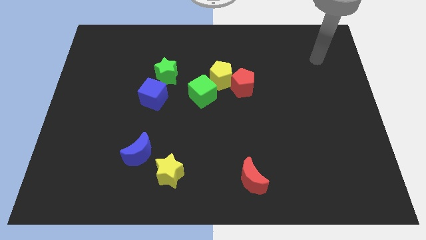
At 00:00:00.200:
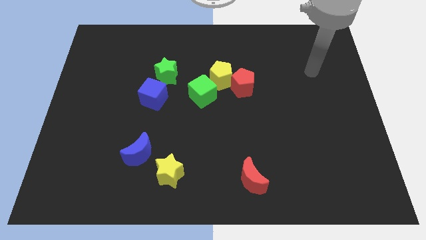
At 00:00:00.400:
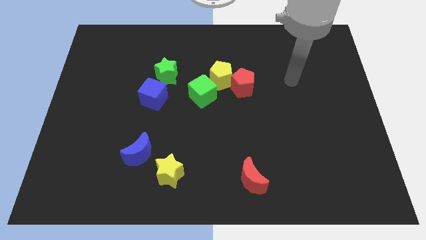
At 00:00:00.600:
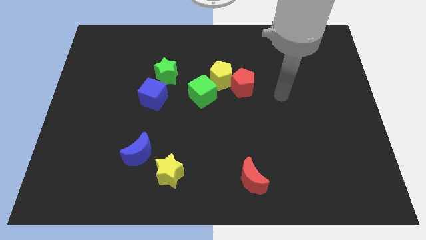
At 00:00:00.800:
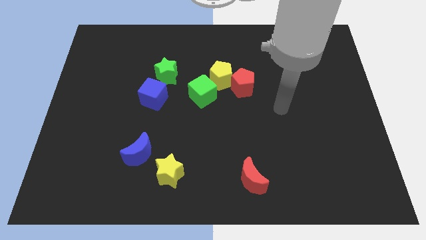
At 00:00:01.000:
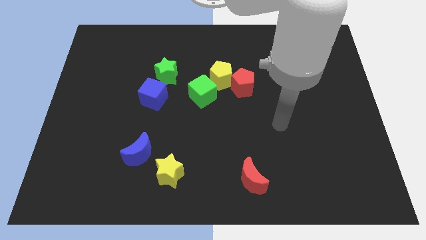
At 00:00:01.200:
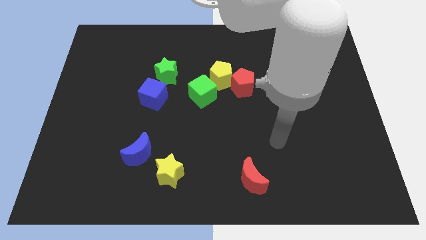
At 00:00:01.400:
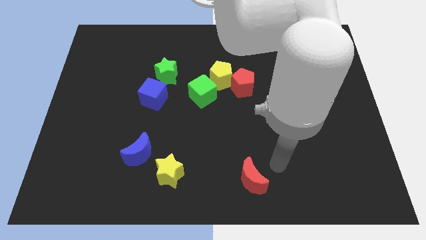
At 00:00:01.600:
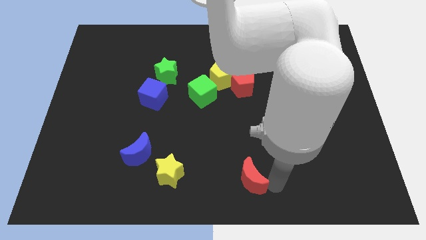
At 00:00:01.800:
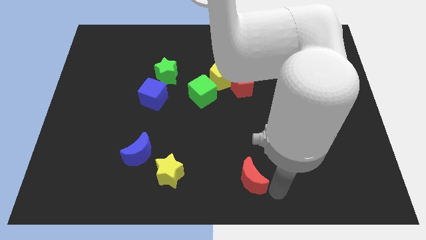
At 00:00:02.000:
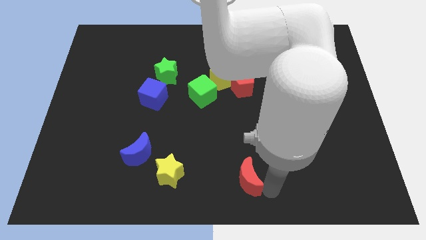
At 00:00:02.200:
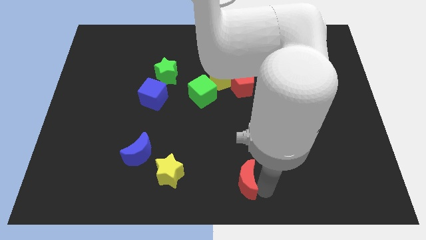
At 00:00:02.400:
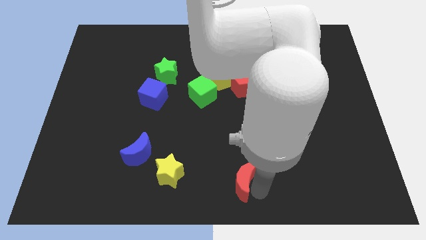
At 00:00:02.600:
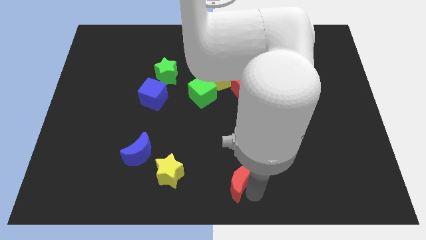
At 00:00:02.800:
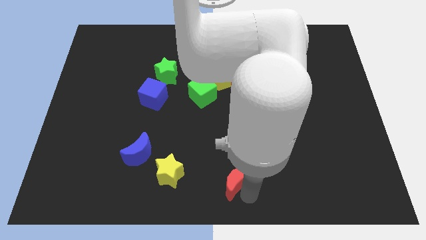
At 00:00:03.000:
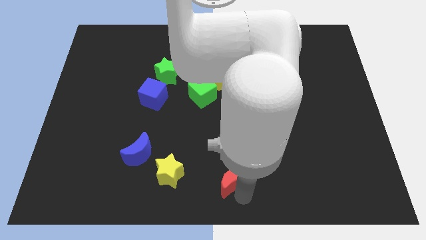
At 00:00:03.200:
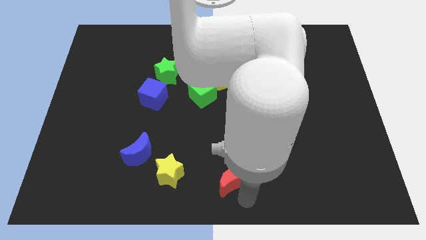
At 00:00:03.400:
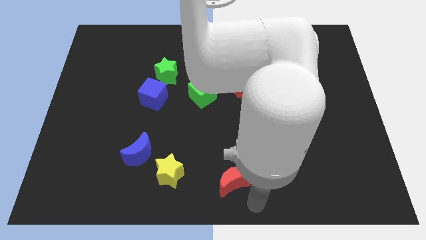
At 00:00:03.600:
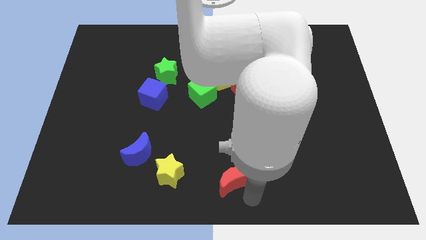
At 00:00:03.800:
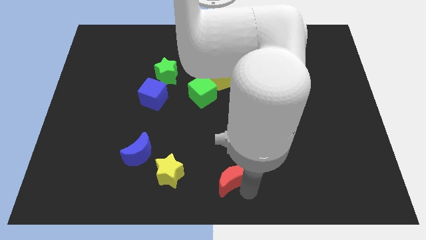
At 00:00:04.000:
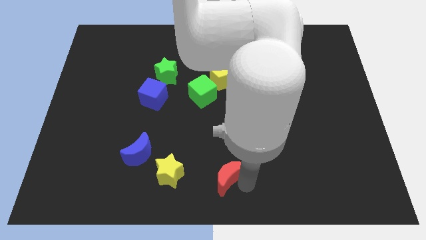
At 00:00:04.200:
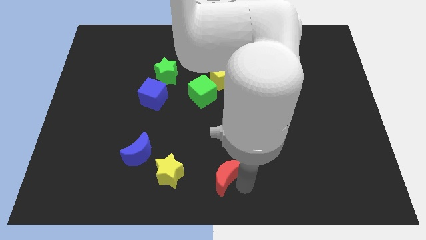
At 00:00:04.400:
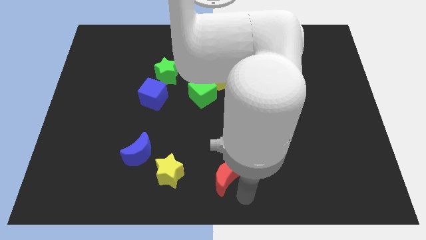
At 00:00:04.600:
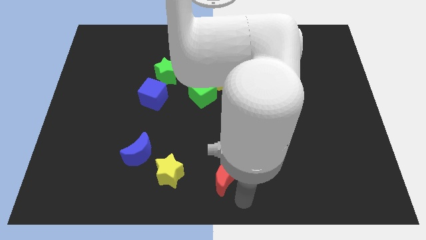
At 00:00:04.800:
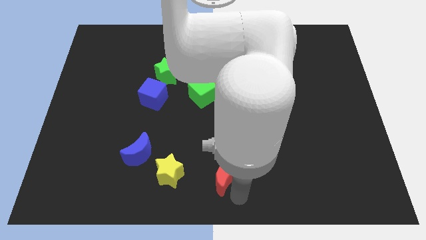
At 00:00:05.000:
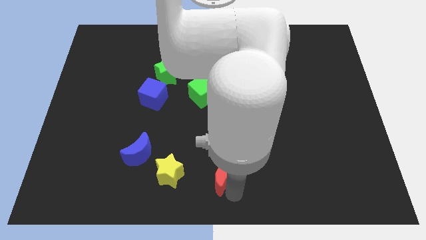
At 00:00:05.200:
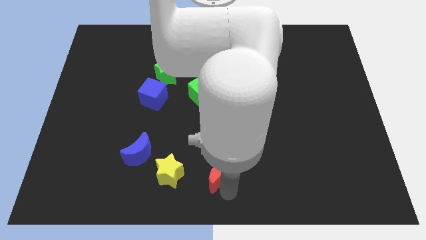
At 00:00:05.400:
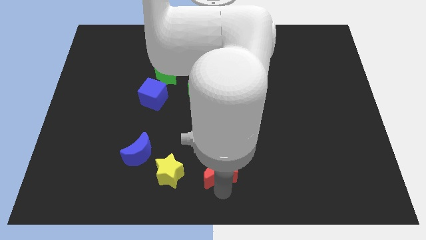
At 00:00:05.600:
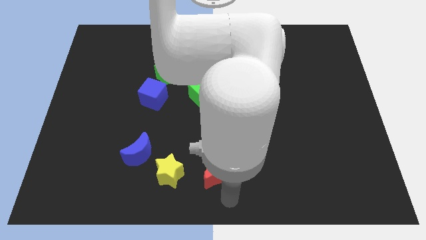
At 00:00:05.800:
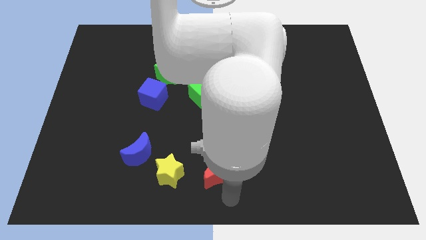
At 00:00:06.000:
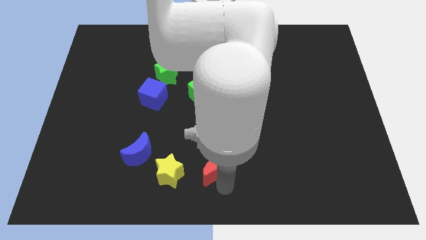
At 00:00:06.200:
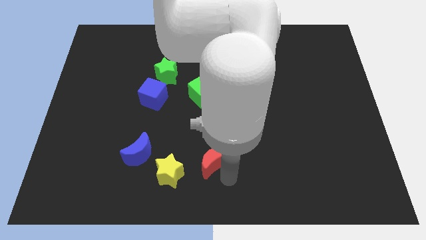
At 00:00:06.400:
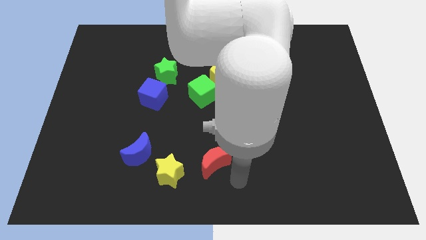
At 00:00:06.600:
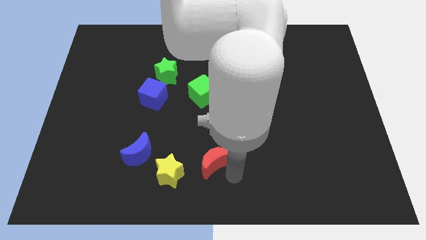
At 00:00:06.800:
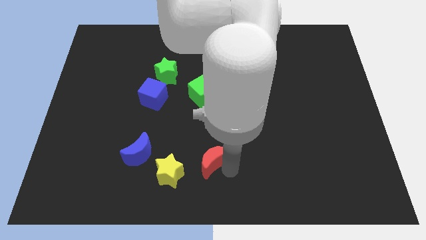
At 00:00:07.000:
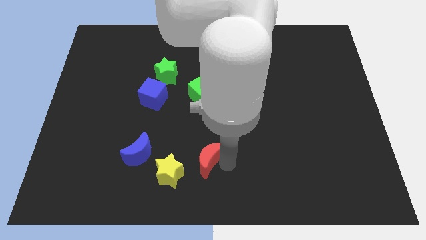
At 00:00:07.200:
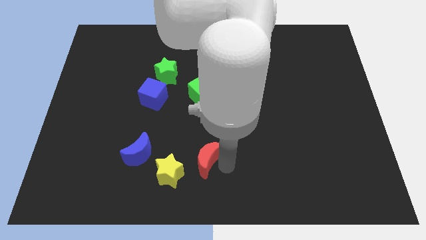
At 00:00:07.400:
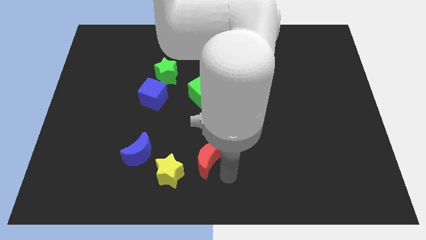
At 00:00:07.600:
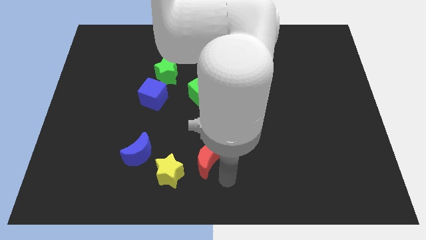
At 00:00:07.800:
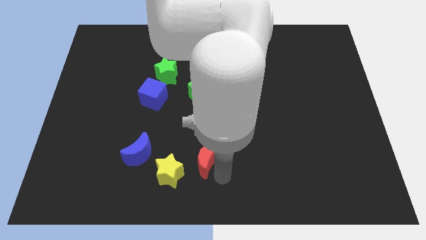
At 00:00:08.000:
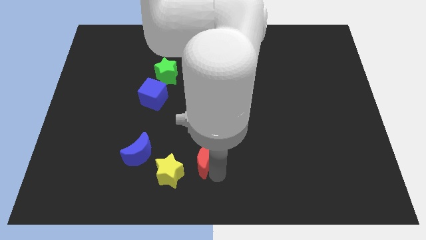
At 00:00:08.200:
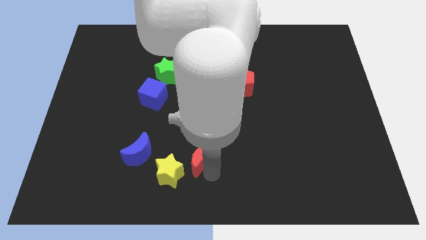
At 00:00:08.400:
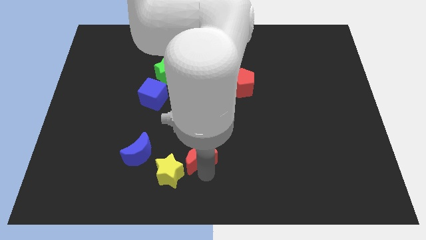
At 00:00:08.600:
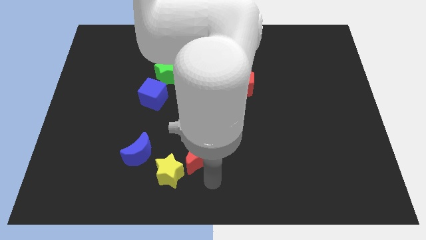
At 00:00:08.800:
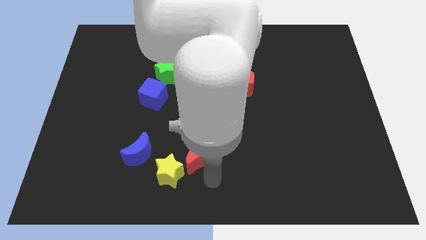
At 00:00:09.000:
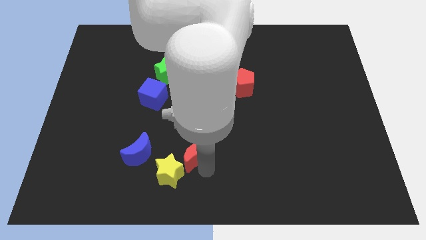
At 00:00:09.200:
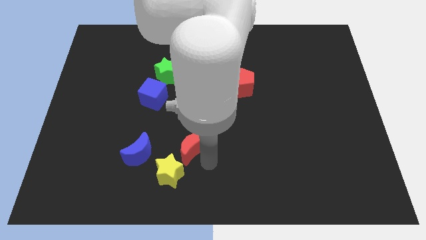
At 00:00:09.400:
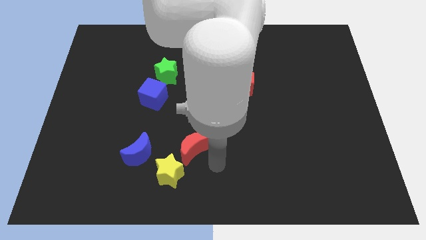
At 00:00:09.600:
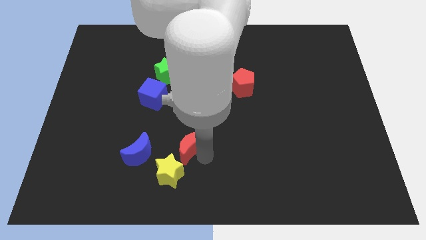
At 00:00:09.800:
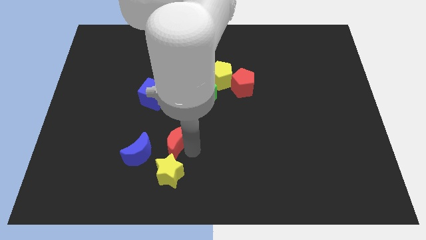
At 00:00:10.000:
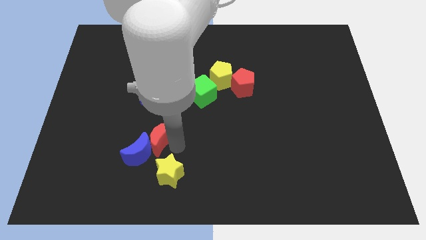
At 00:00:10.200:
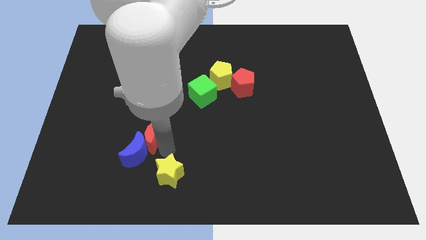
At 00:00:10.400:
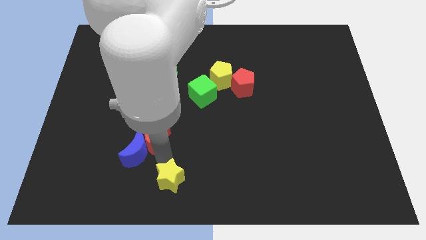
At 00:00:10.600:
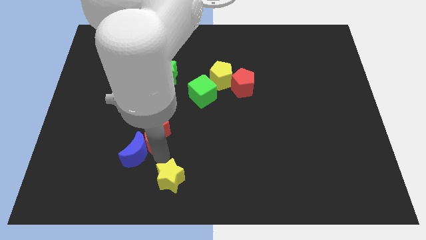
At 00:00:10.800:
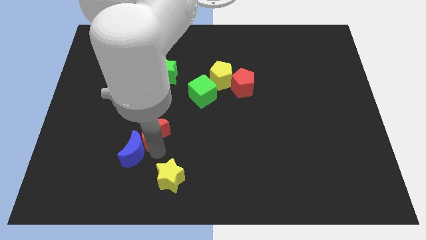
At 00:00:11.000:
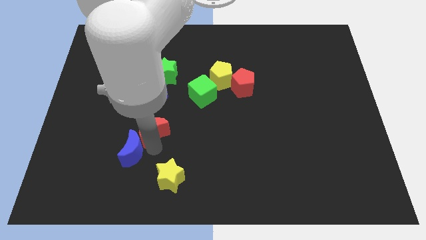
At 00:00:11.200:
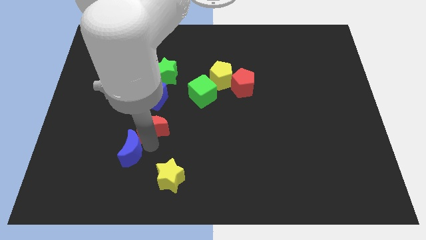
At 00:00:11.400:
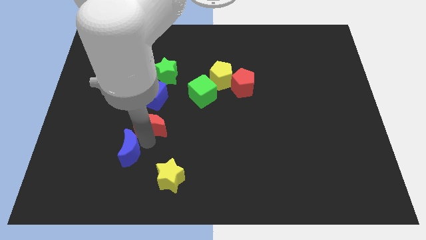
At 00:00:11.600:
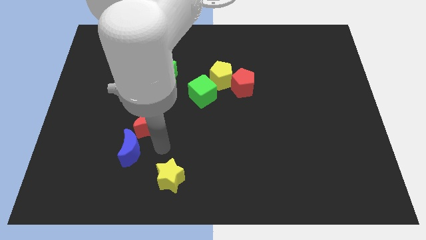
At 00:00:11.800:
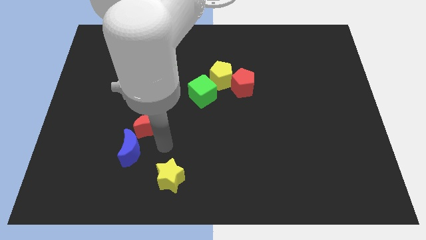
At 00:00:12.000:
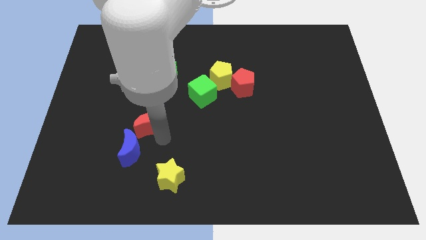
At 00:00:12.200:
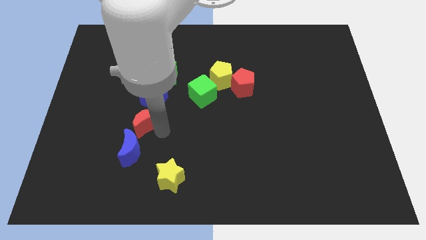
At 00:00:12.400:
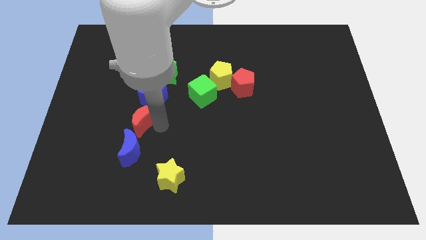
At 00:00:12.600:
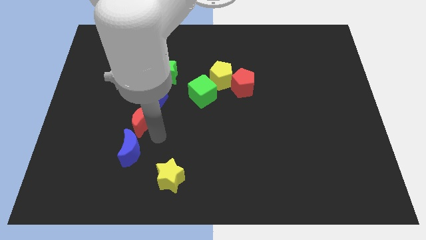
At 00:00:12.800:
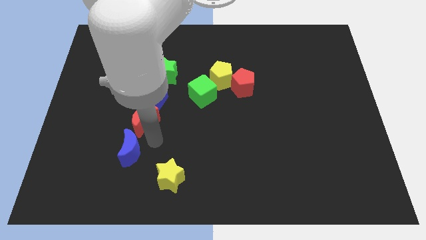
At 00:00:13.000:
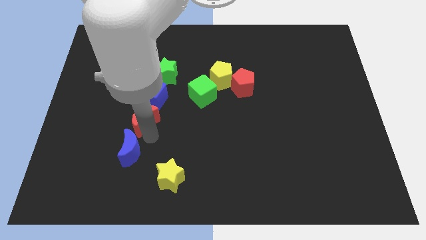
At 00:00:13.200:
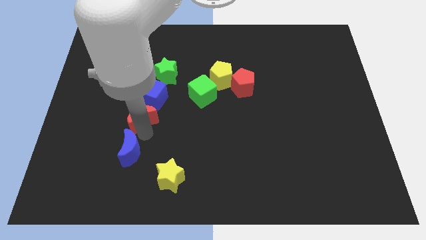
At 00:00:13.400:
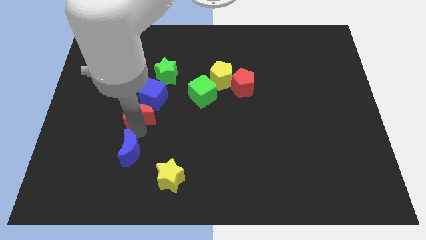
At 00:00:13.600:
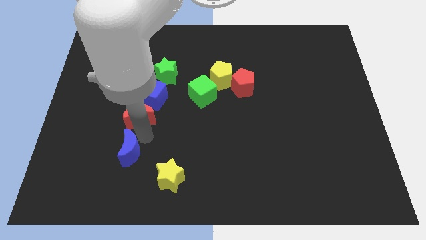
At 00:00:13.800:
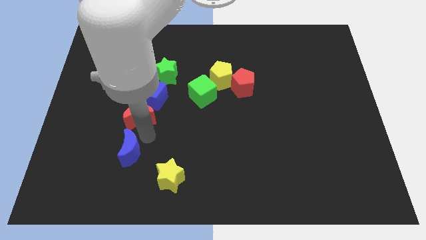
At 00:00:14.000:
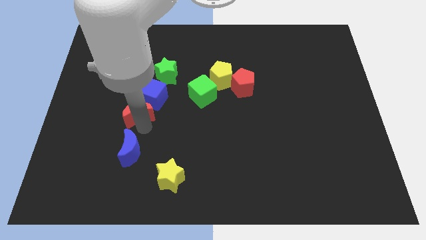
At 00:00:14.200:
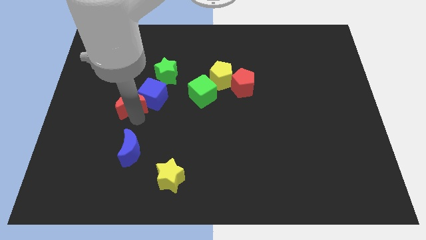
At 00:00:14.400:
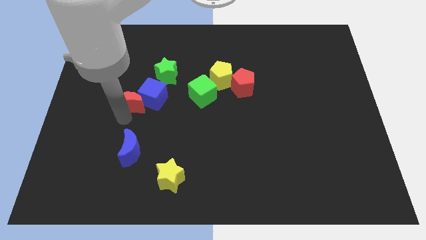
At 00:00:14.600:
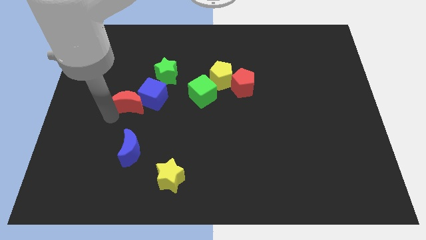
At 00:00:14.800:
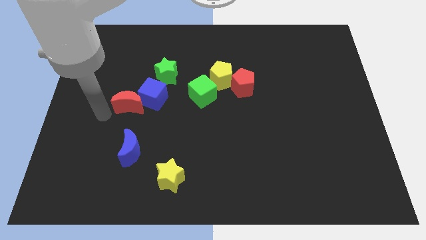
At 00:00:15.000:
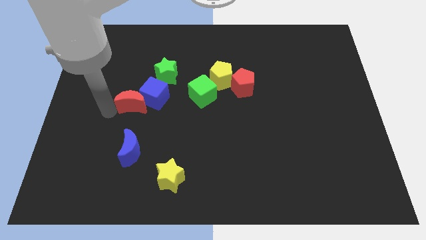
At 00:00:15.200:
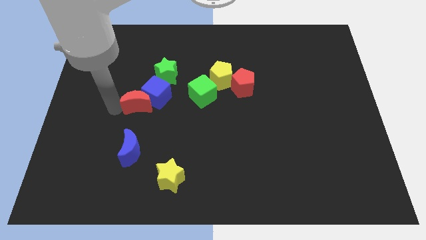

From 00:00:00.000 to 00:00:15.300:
put the red moon just left of the green cube
